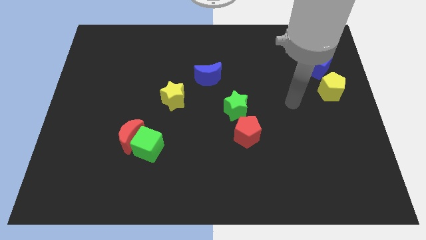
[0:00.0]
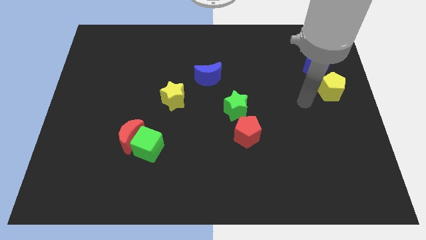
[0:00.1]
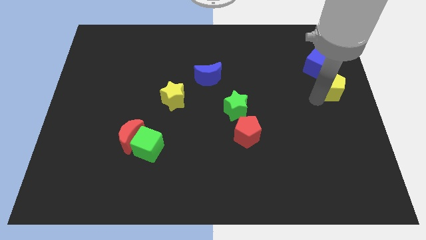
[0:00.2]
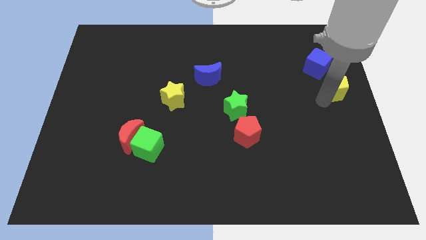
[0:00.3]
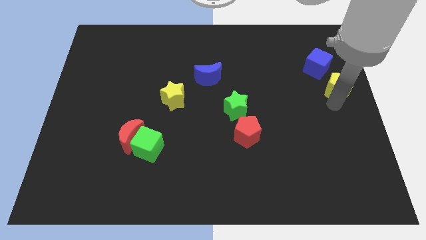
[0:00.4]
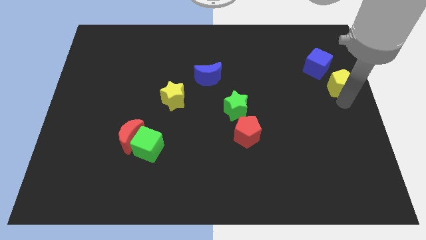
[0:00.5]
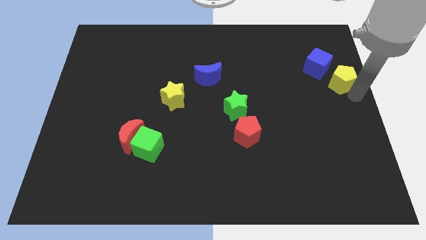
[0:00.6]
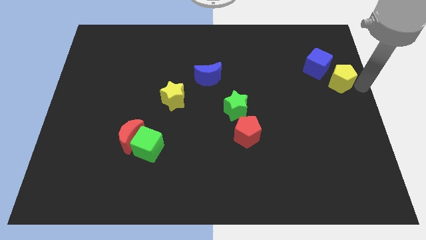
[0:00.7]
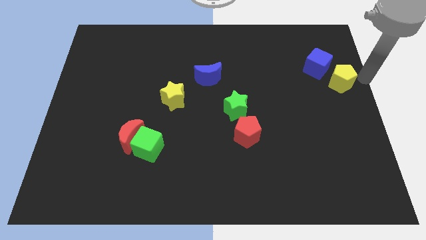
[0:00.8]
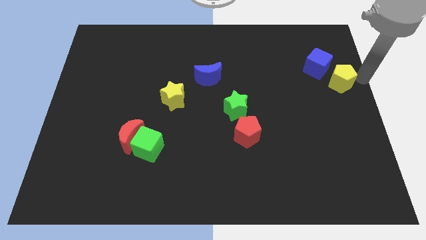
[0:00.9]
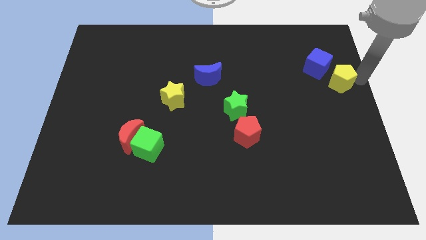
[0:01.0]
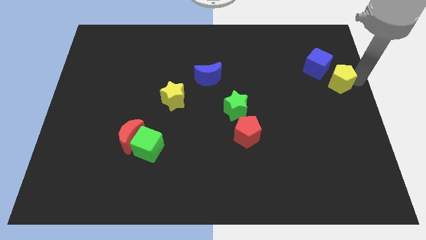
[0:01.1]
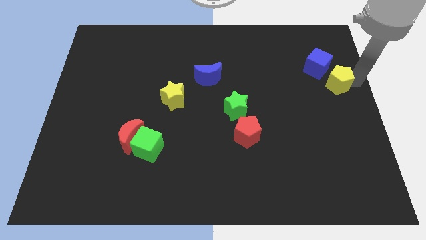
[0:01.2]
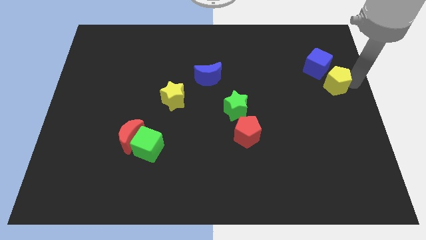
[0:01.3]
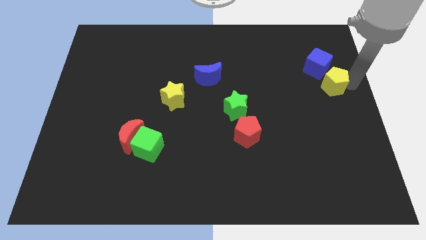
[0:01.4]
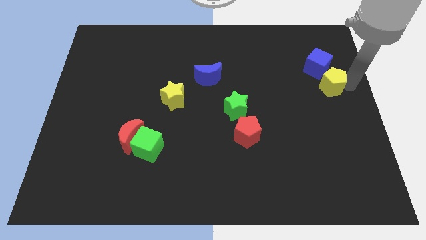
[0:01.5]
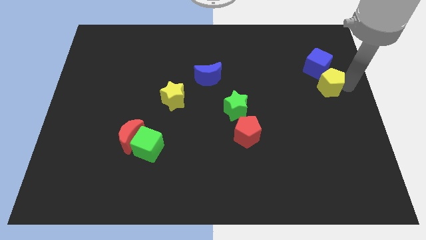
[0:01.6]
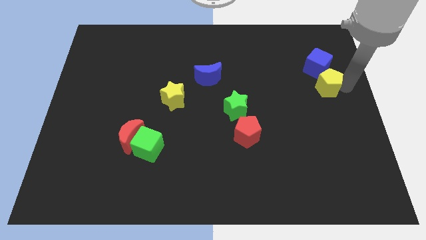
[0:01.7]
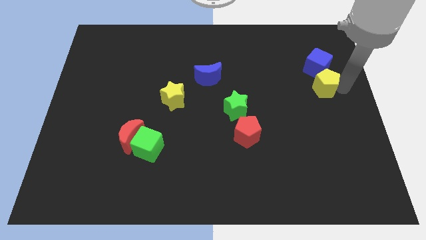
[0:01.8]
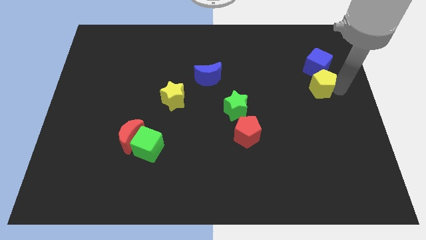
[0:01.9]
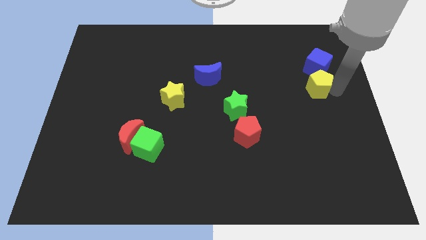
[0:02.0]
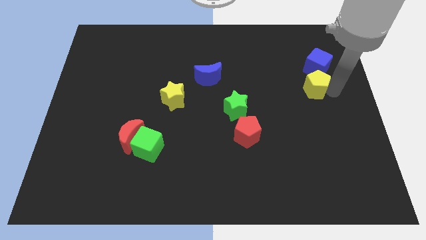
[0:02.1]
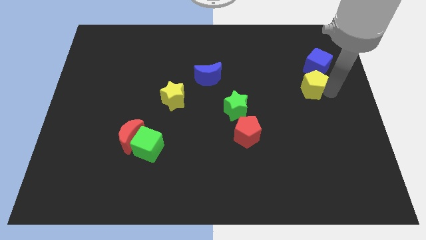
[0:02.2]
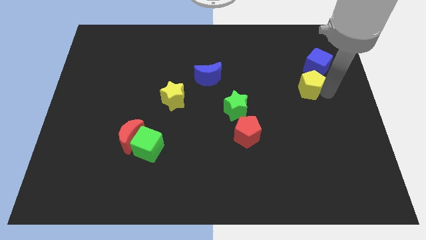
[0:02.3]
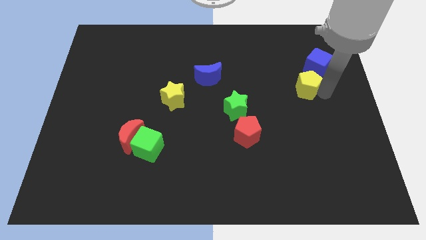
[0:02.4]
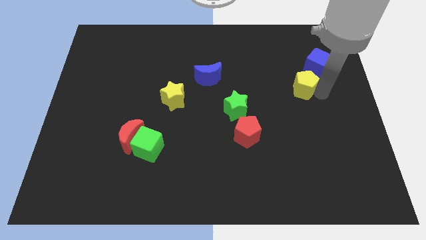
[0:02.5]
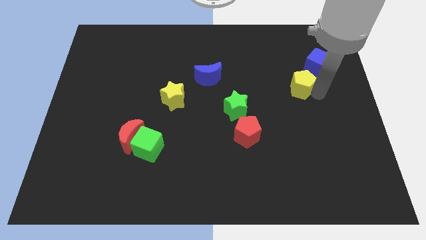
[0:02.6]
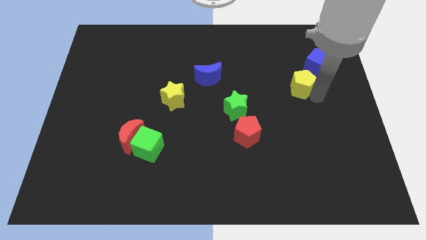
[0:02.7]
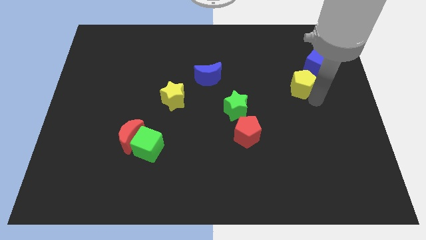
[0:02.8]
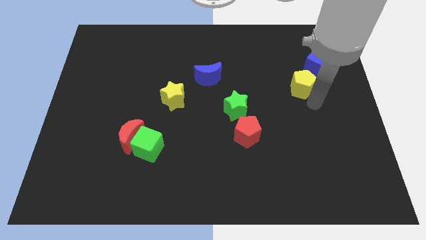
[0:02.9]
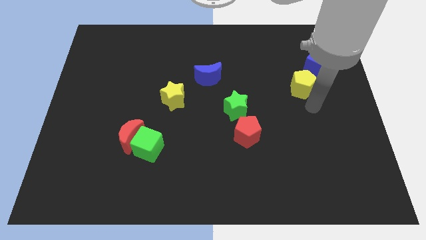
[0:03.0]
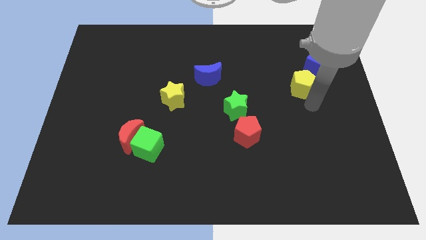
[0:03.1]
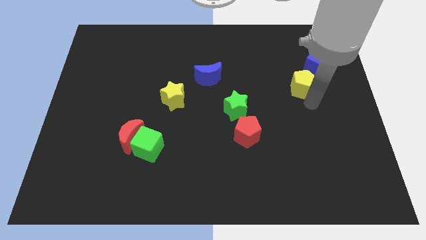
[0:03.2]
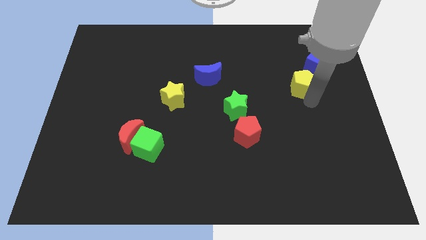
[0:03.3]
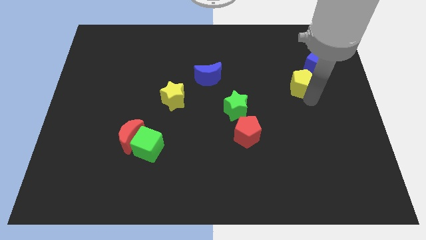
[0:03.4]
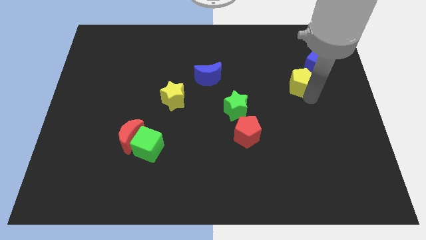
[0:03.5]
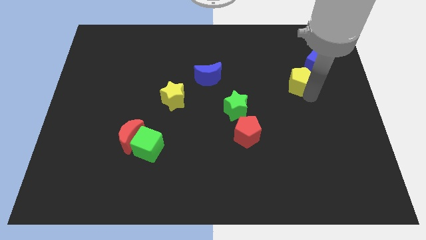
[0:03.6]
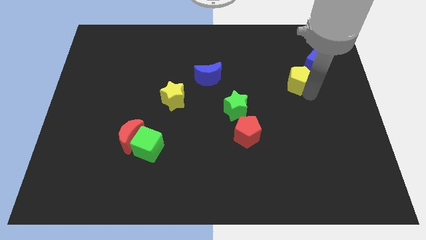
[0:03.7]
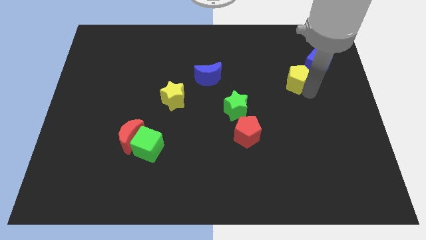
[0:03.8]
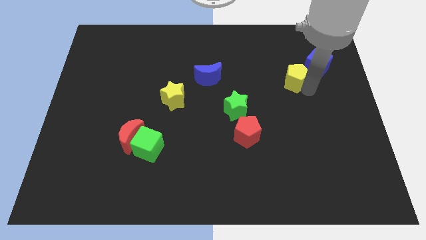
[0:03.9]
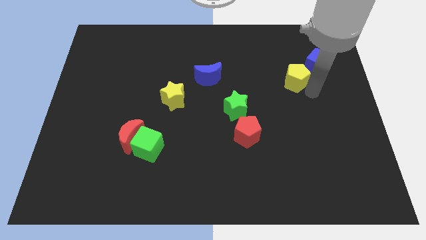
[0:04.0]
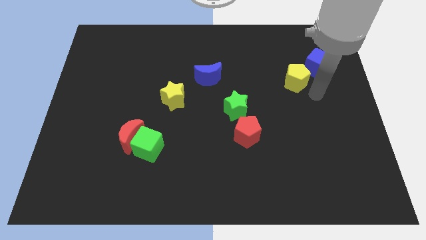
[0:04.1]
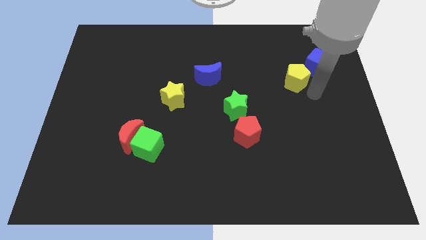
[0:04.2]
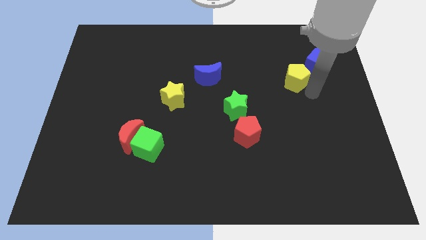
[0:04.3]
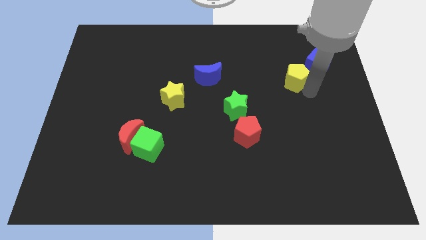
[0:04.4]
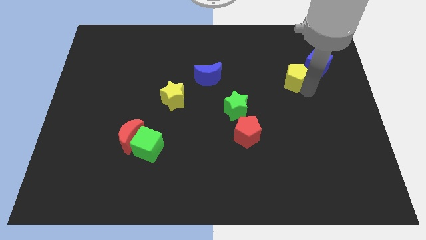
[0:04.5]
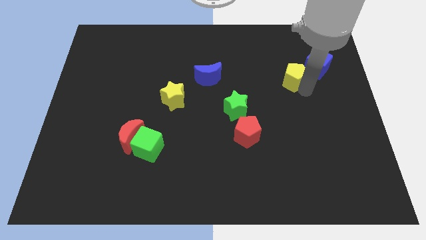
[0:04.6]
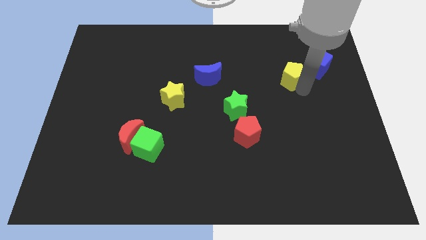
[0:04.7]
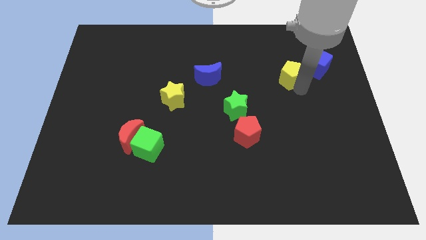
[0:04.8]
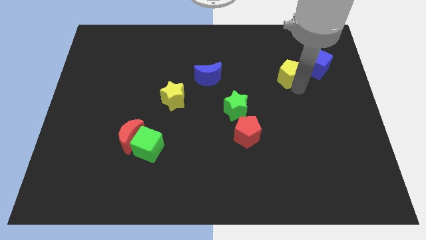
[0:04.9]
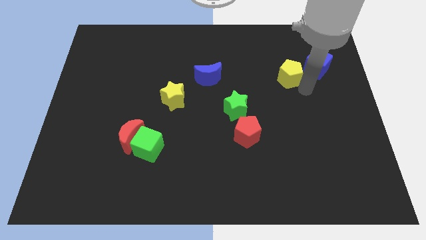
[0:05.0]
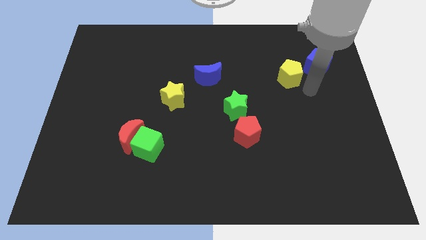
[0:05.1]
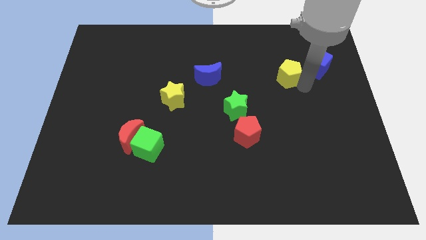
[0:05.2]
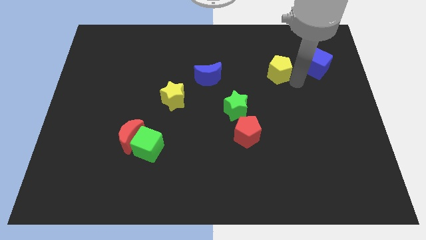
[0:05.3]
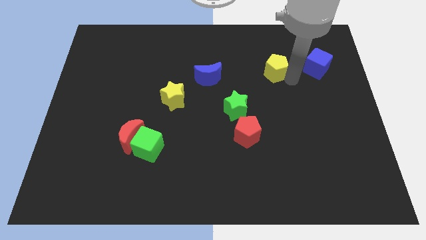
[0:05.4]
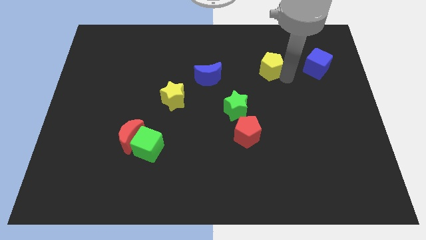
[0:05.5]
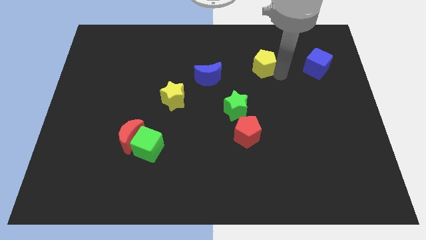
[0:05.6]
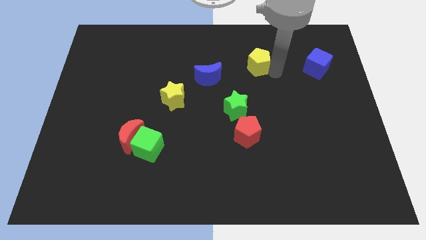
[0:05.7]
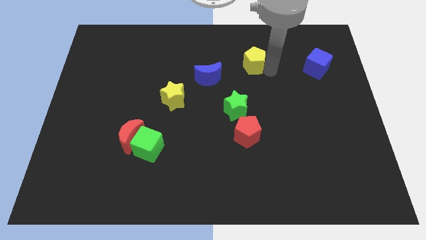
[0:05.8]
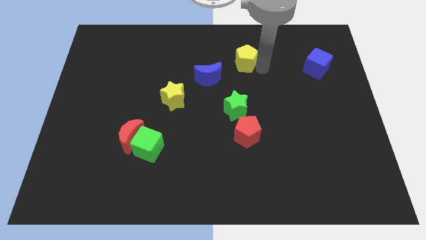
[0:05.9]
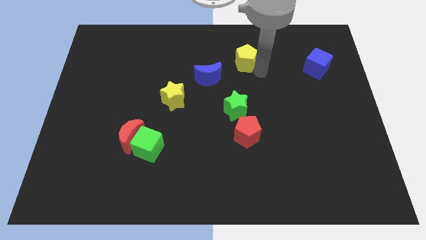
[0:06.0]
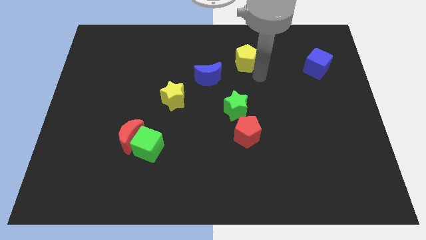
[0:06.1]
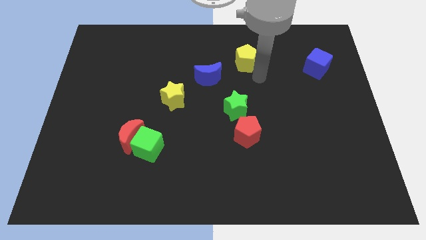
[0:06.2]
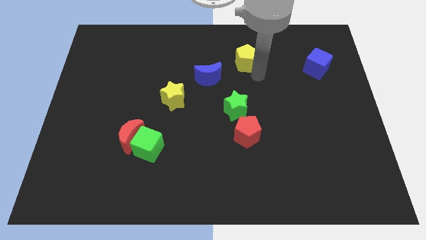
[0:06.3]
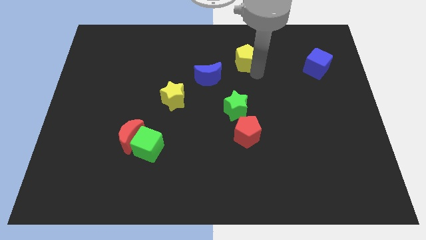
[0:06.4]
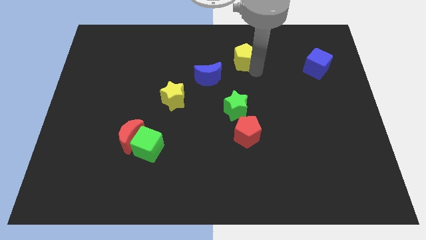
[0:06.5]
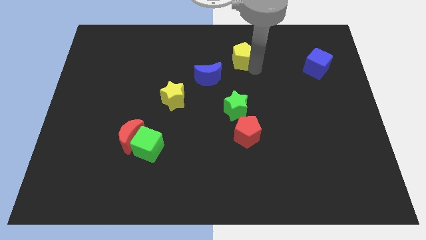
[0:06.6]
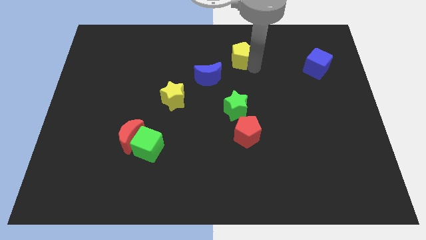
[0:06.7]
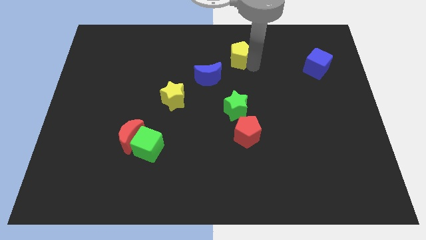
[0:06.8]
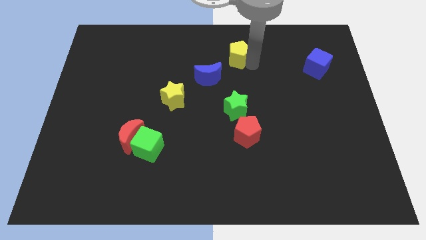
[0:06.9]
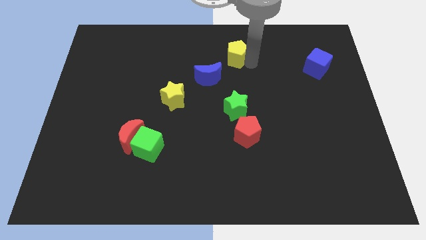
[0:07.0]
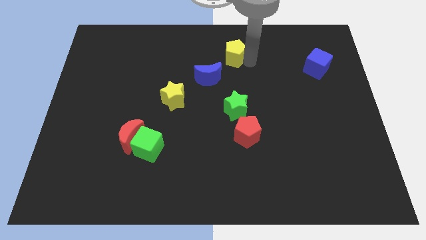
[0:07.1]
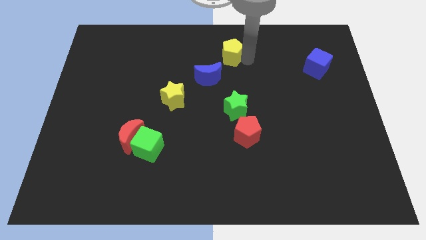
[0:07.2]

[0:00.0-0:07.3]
move the yellow pentagon to the top
